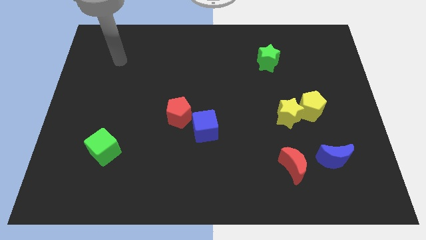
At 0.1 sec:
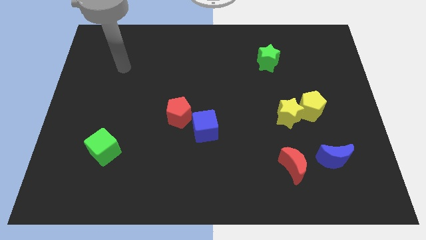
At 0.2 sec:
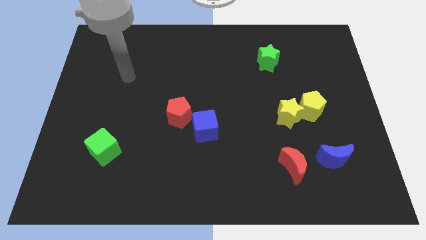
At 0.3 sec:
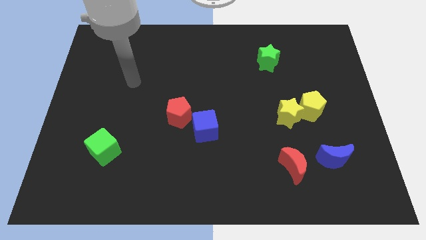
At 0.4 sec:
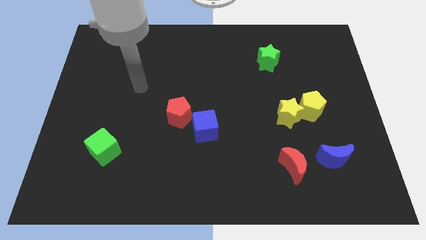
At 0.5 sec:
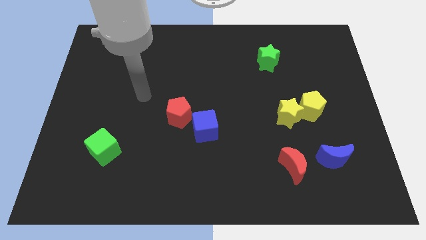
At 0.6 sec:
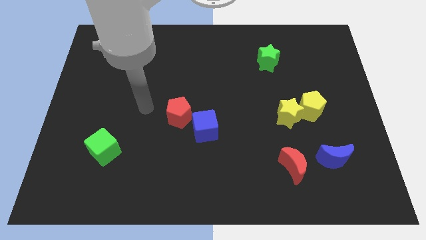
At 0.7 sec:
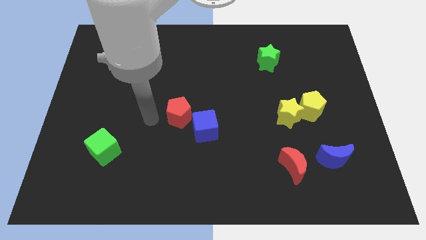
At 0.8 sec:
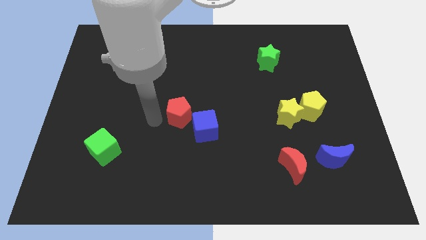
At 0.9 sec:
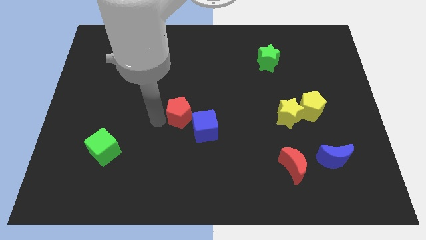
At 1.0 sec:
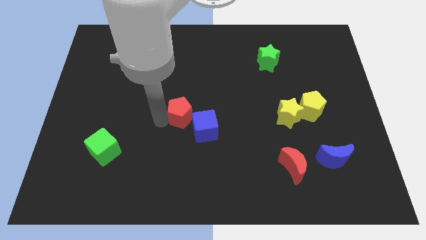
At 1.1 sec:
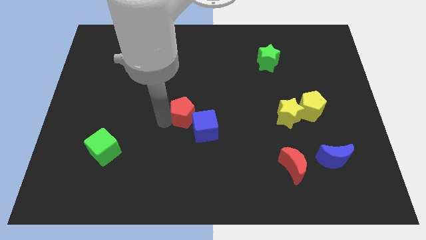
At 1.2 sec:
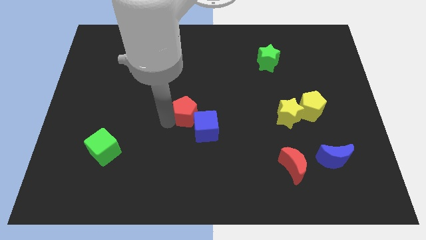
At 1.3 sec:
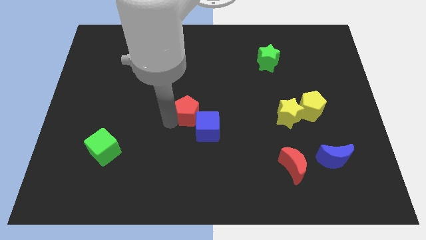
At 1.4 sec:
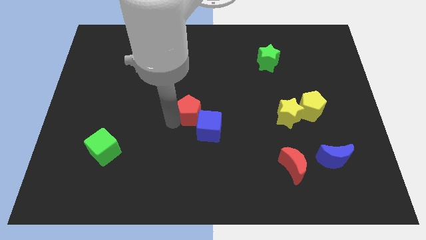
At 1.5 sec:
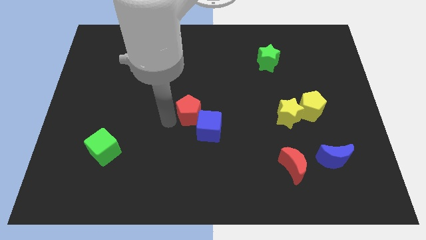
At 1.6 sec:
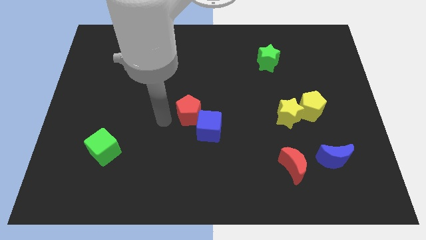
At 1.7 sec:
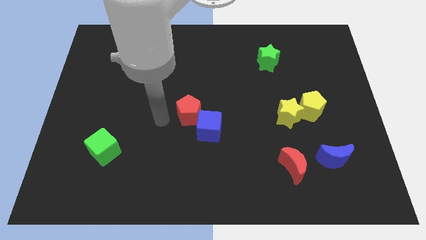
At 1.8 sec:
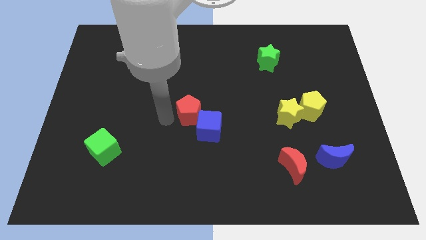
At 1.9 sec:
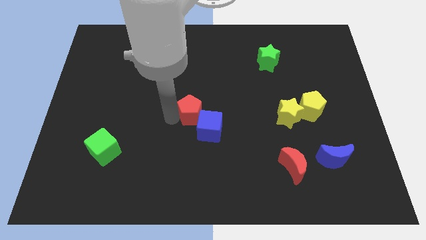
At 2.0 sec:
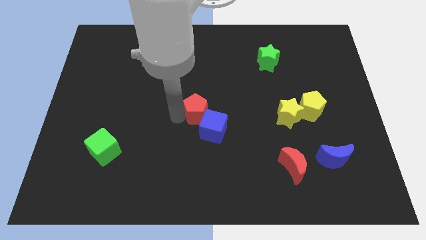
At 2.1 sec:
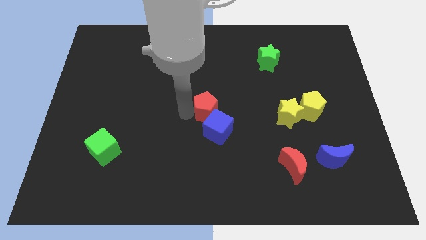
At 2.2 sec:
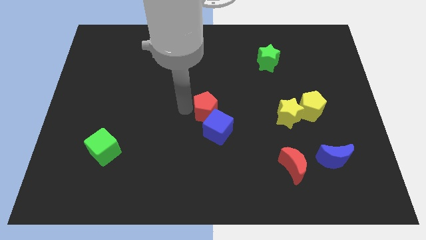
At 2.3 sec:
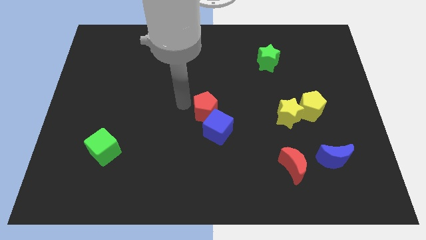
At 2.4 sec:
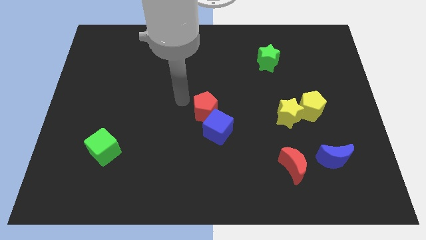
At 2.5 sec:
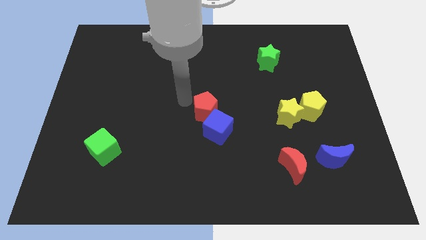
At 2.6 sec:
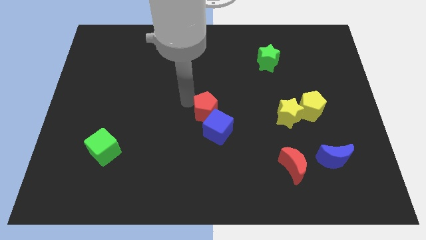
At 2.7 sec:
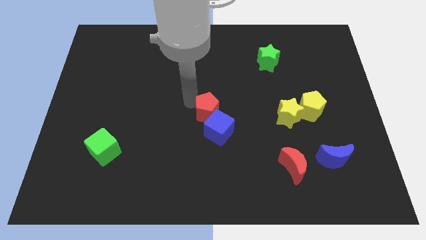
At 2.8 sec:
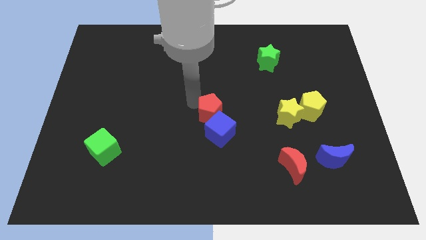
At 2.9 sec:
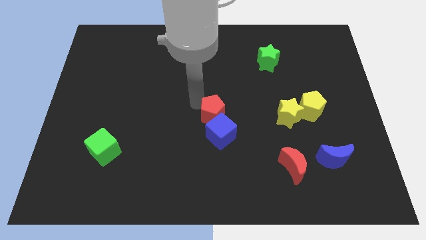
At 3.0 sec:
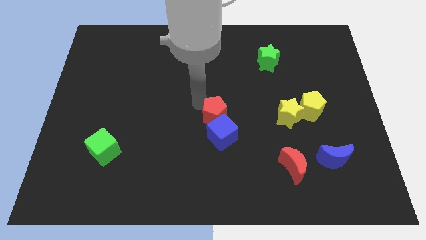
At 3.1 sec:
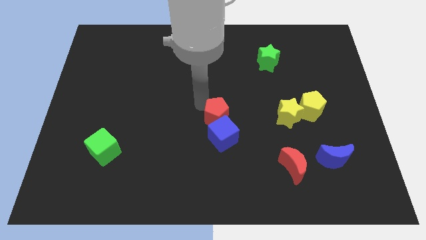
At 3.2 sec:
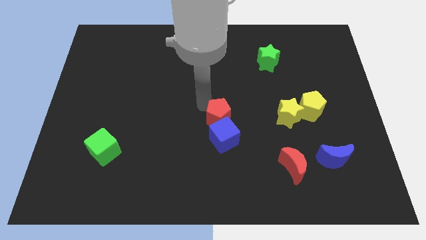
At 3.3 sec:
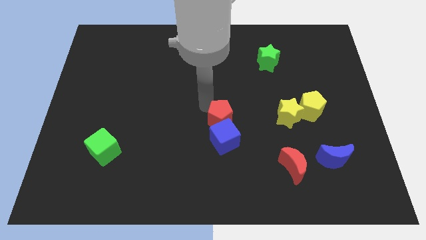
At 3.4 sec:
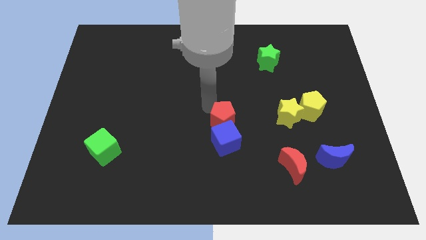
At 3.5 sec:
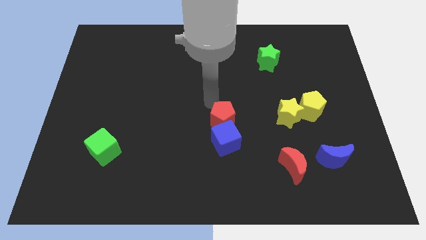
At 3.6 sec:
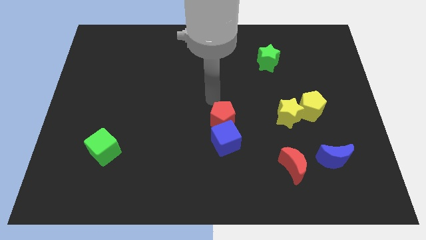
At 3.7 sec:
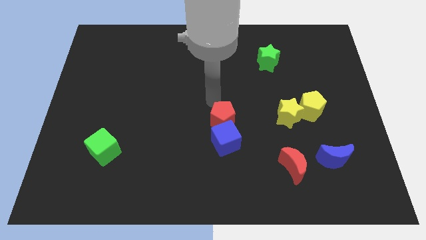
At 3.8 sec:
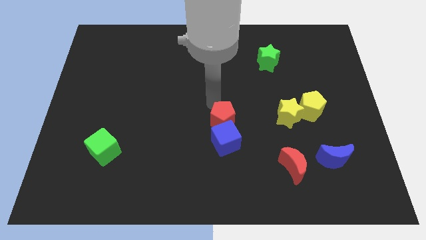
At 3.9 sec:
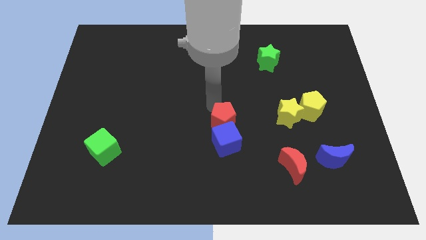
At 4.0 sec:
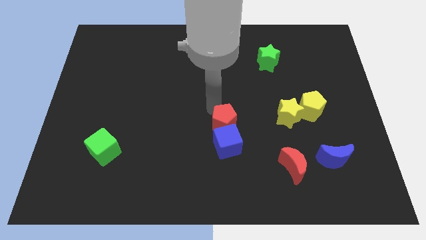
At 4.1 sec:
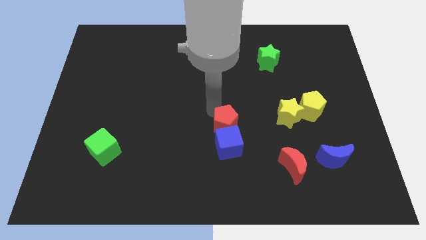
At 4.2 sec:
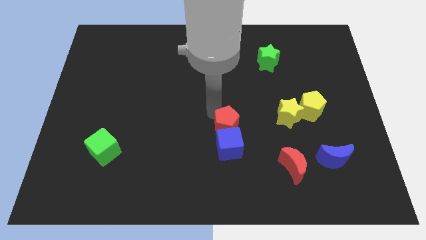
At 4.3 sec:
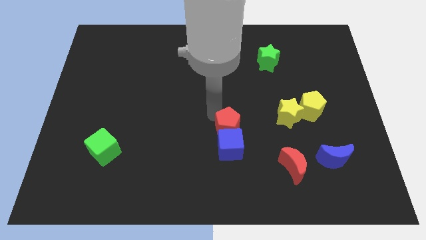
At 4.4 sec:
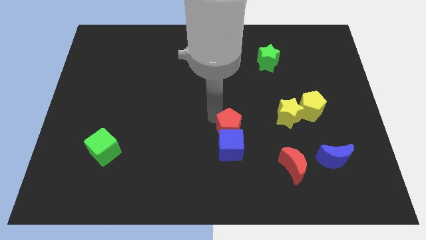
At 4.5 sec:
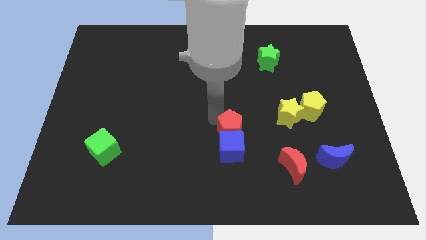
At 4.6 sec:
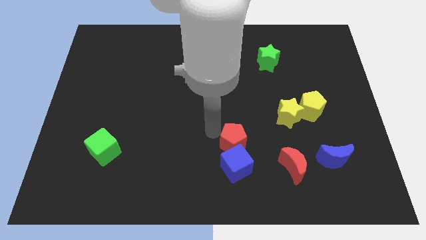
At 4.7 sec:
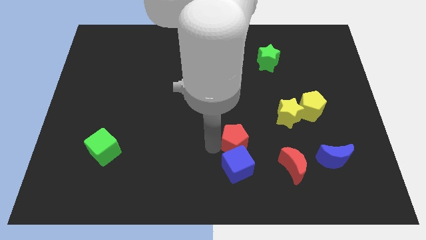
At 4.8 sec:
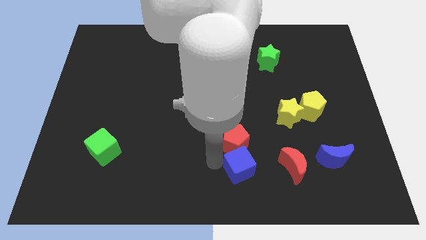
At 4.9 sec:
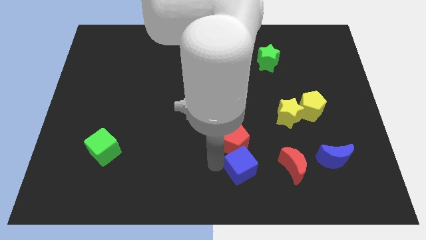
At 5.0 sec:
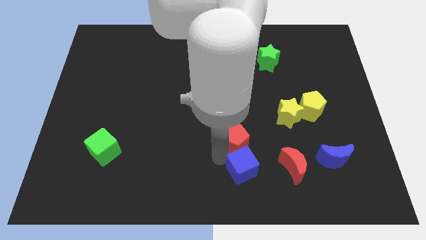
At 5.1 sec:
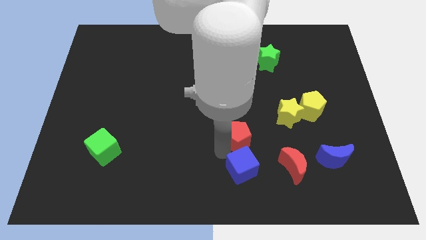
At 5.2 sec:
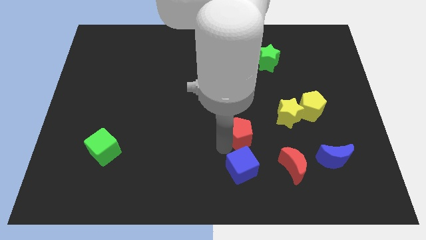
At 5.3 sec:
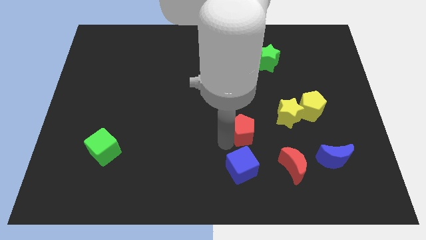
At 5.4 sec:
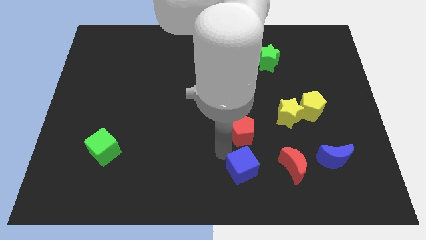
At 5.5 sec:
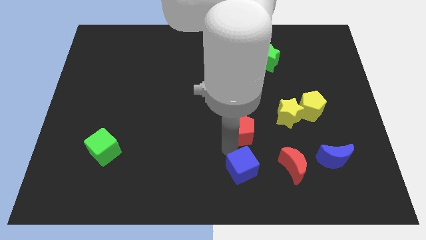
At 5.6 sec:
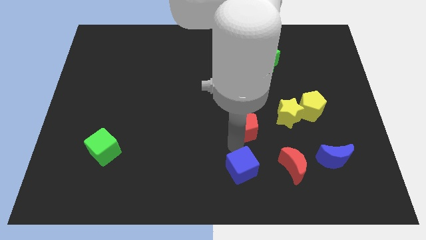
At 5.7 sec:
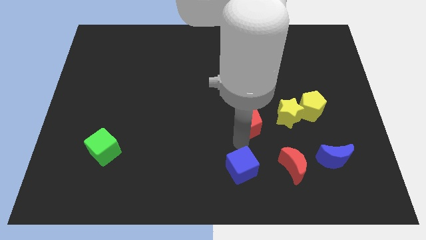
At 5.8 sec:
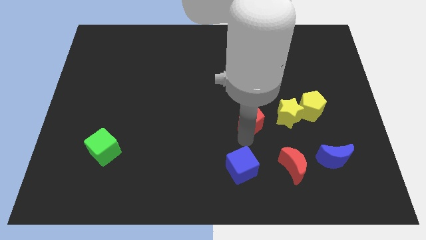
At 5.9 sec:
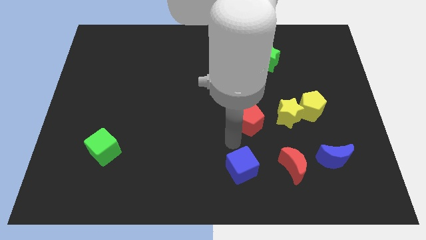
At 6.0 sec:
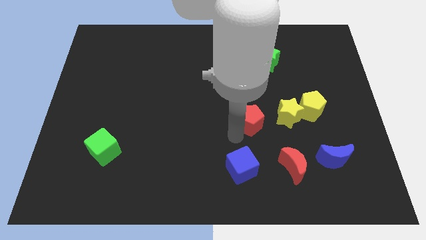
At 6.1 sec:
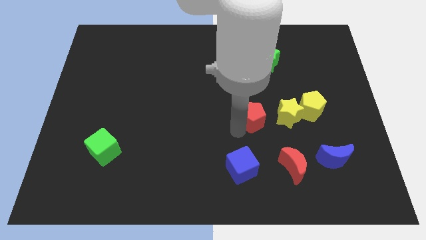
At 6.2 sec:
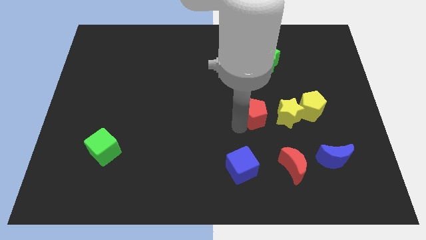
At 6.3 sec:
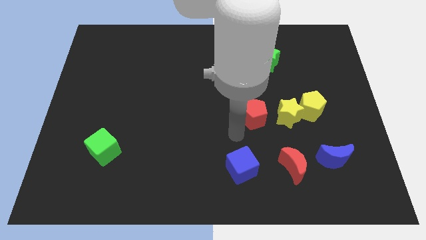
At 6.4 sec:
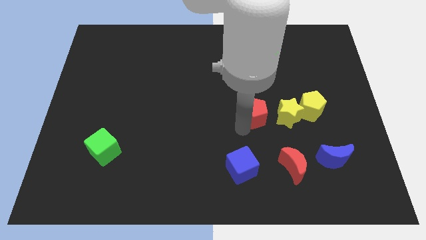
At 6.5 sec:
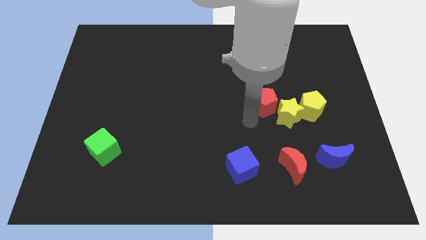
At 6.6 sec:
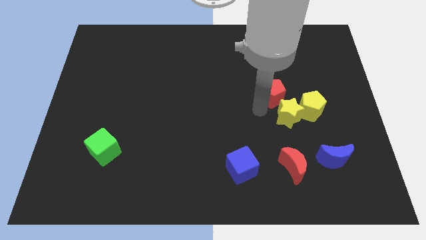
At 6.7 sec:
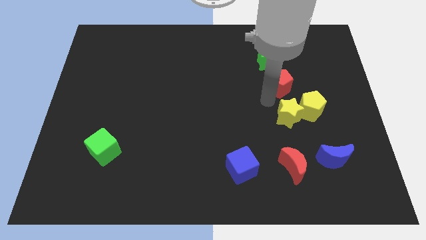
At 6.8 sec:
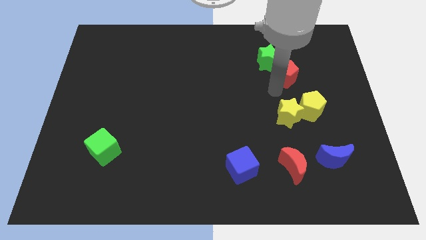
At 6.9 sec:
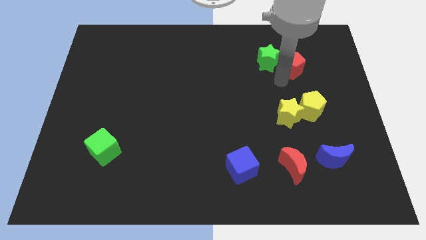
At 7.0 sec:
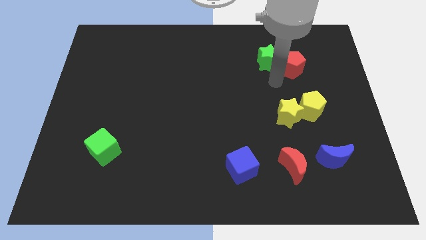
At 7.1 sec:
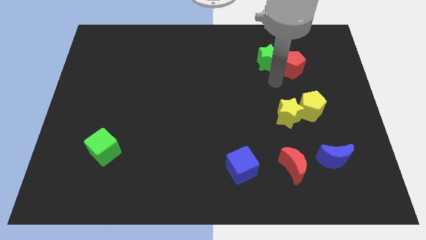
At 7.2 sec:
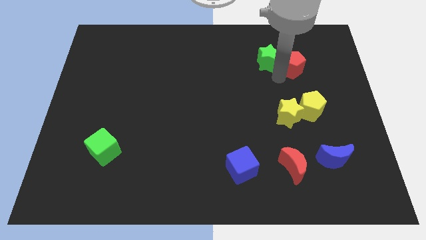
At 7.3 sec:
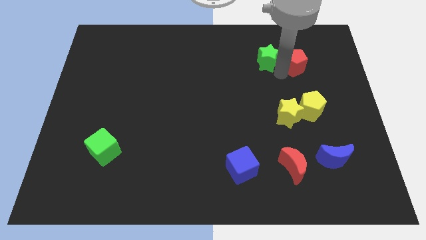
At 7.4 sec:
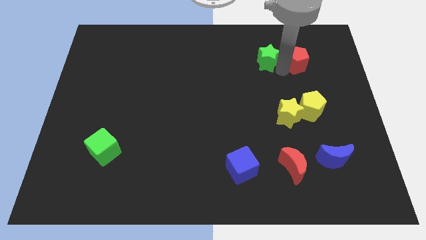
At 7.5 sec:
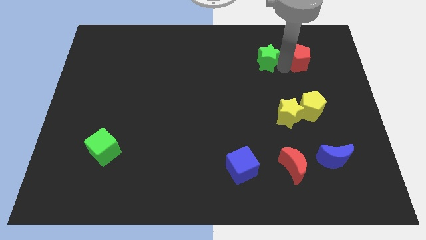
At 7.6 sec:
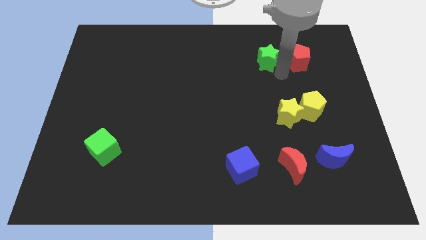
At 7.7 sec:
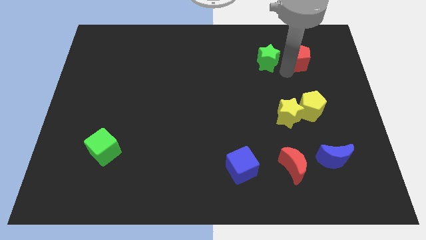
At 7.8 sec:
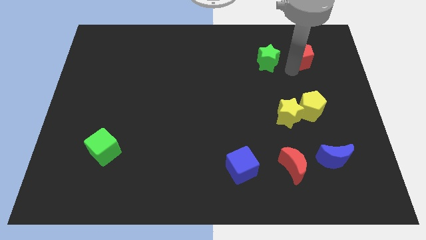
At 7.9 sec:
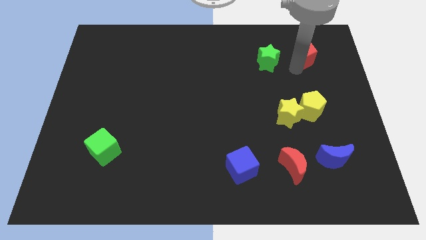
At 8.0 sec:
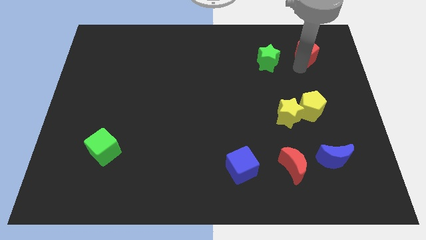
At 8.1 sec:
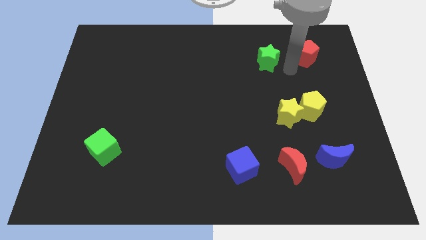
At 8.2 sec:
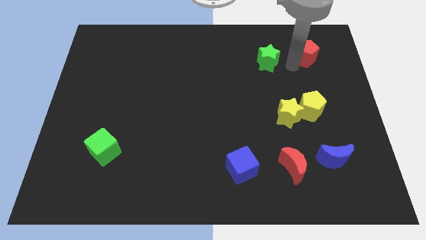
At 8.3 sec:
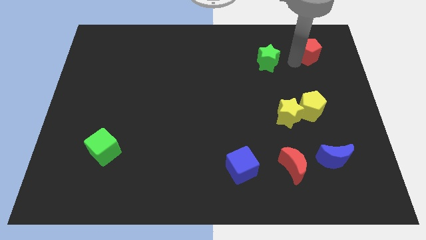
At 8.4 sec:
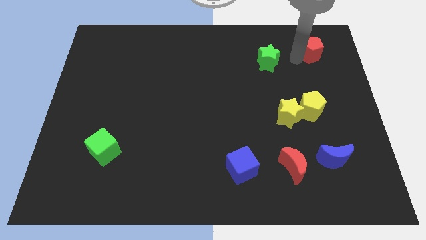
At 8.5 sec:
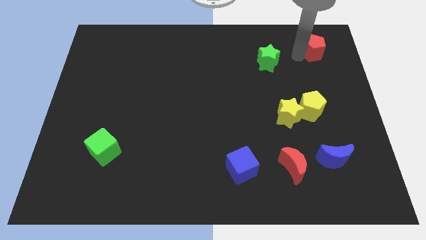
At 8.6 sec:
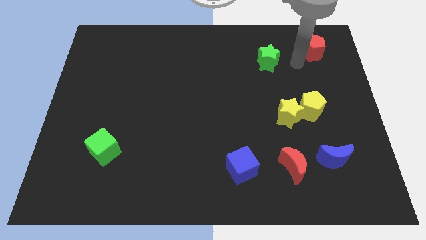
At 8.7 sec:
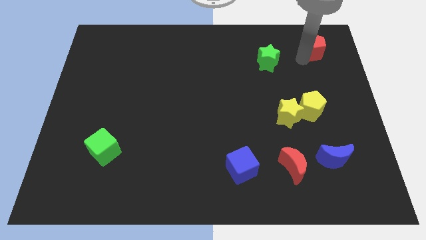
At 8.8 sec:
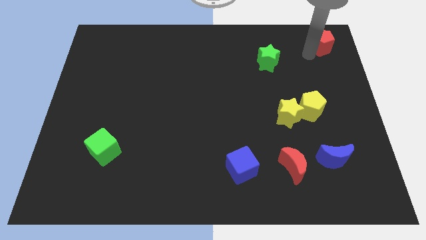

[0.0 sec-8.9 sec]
put the red pentagon to the top right
